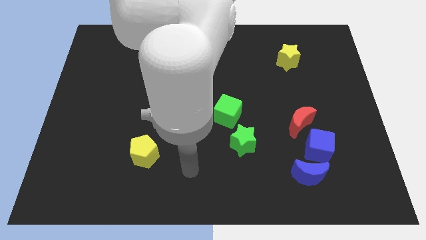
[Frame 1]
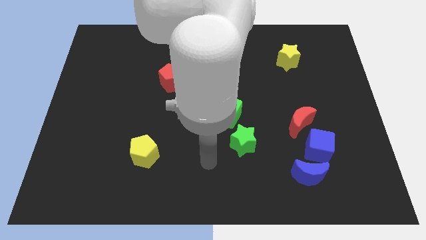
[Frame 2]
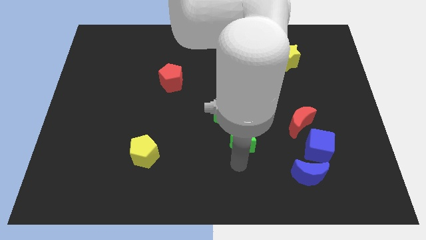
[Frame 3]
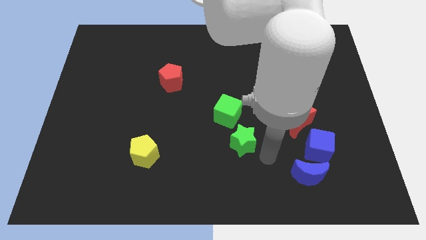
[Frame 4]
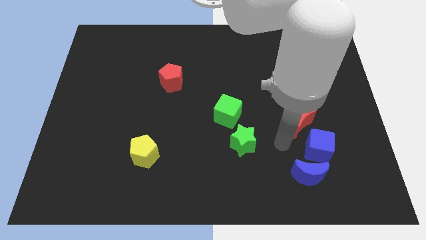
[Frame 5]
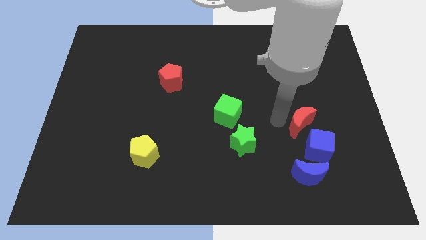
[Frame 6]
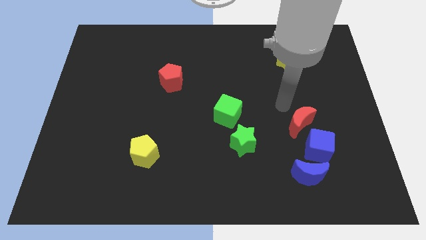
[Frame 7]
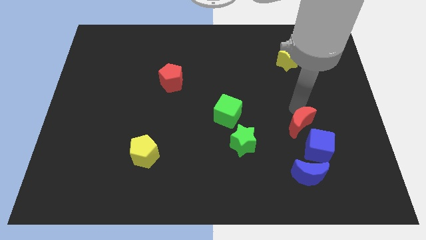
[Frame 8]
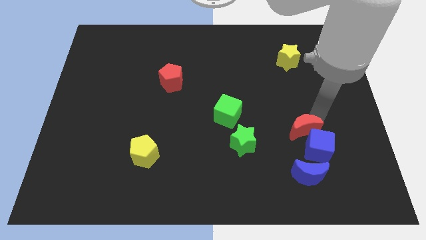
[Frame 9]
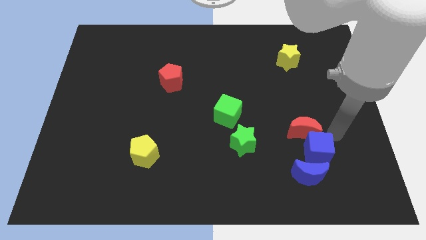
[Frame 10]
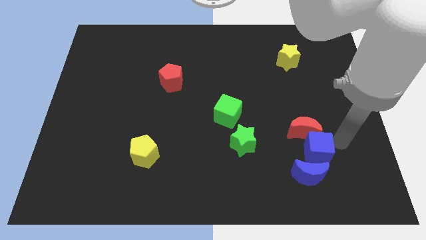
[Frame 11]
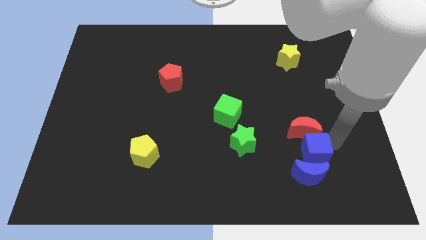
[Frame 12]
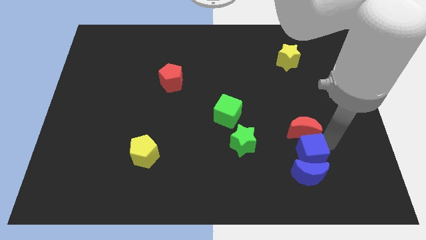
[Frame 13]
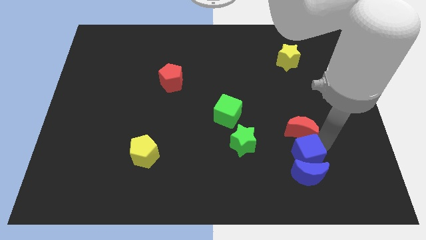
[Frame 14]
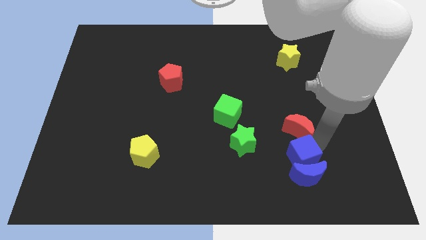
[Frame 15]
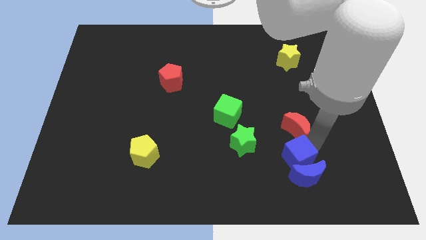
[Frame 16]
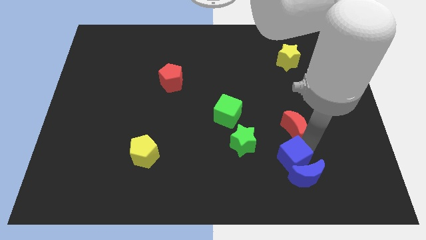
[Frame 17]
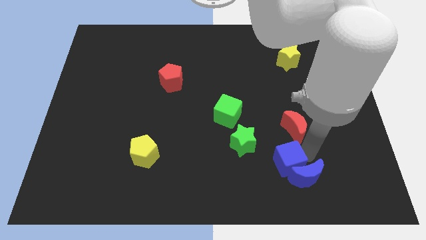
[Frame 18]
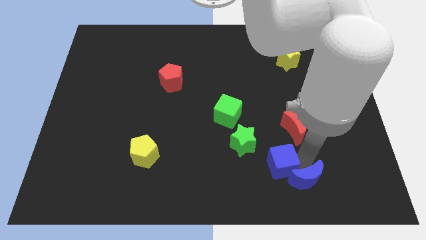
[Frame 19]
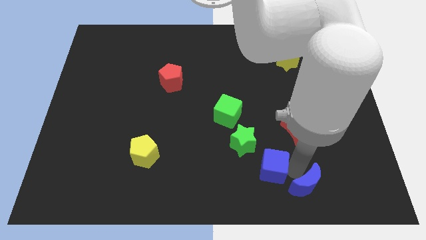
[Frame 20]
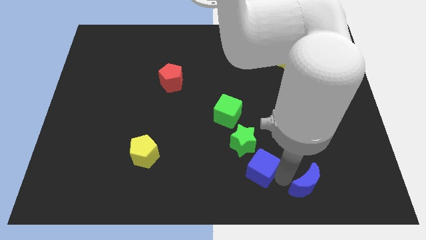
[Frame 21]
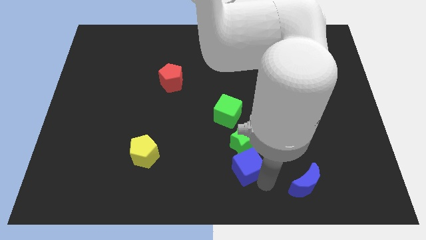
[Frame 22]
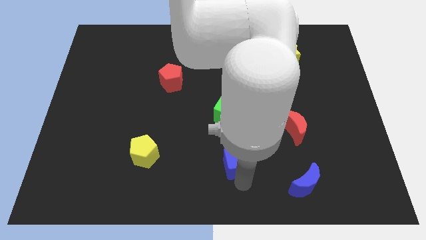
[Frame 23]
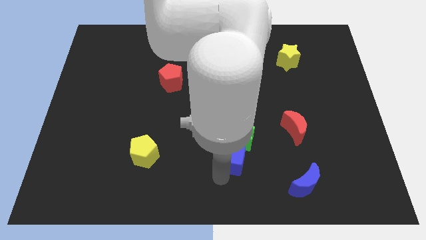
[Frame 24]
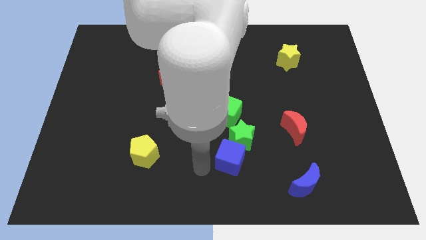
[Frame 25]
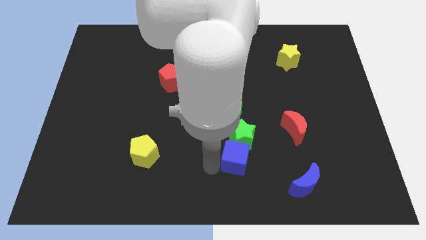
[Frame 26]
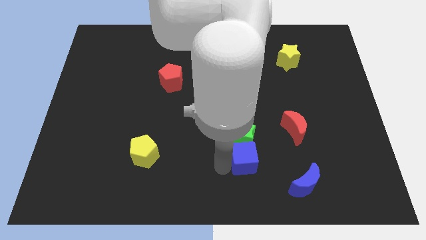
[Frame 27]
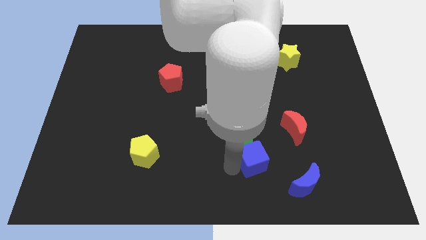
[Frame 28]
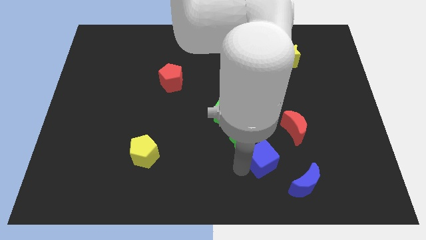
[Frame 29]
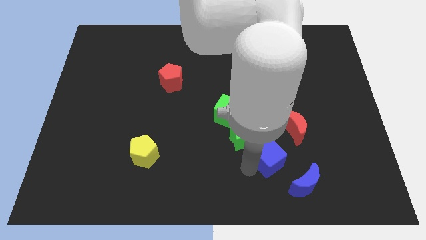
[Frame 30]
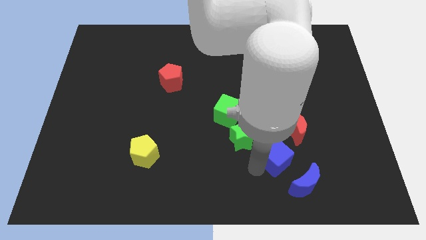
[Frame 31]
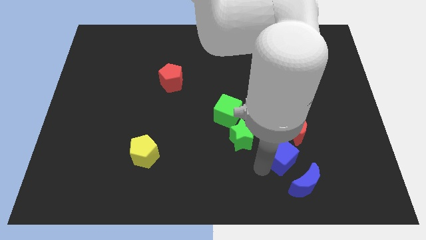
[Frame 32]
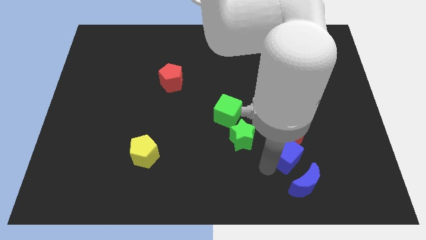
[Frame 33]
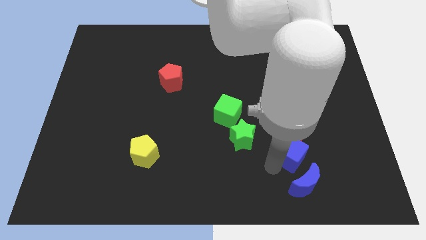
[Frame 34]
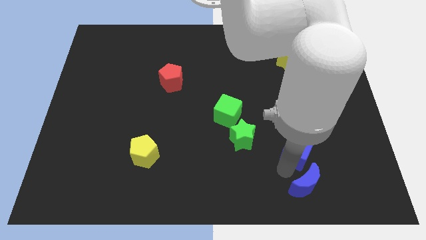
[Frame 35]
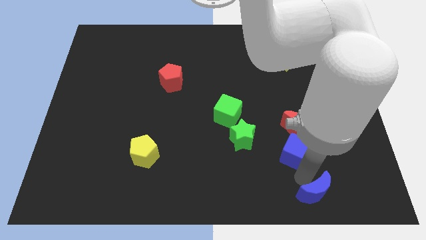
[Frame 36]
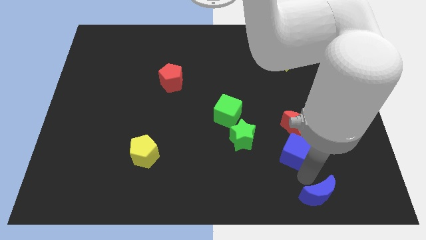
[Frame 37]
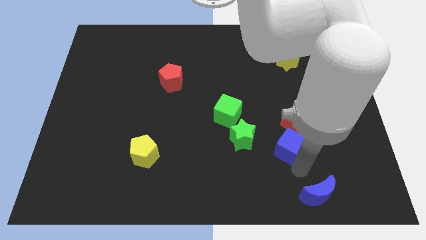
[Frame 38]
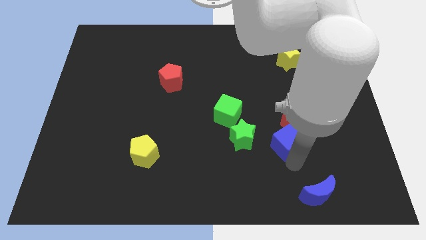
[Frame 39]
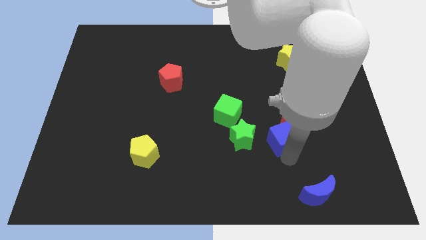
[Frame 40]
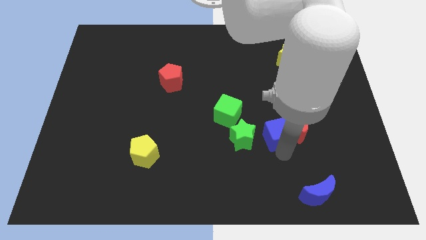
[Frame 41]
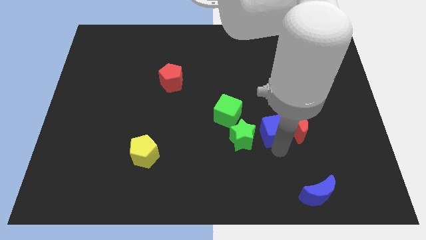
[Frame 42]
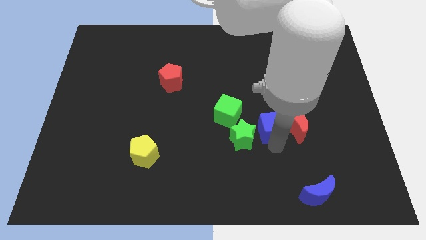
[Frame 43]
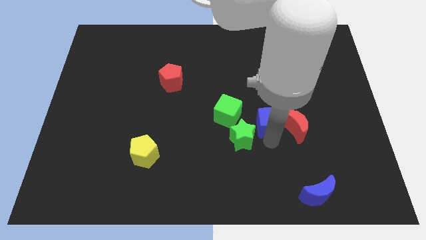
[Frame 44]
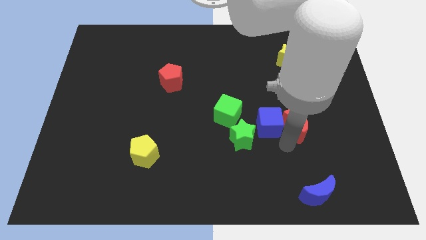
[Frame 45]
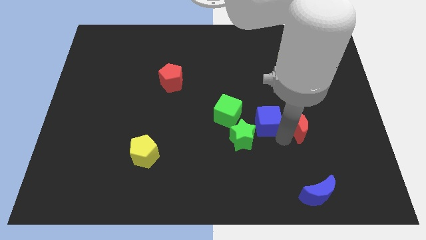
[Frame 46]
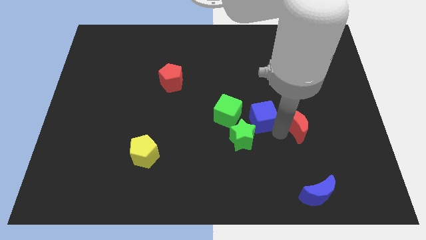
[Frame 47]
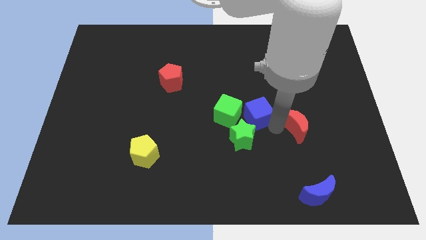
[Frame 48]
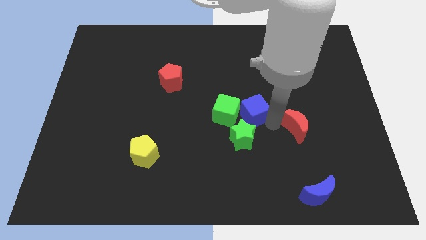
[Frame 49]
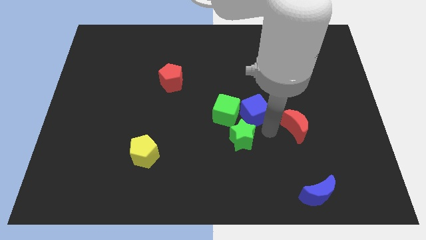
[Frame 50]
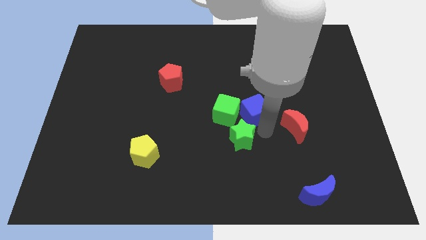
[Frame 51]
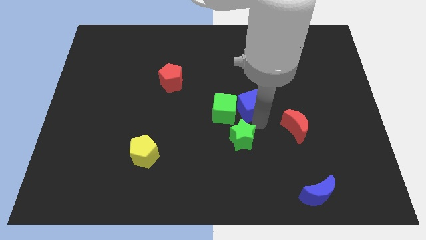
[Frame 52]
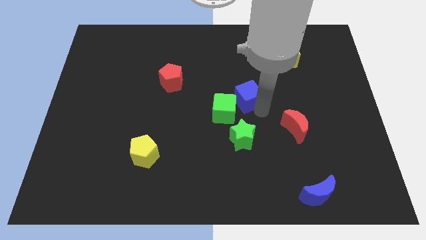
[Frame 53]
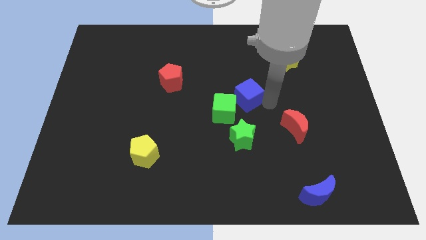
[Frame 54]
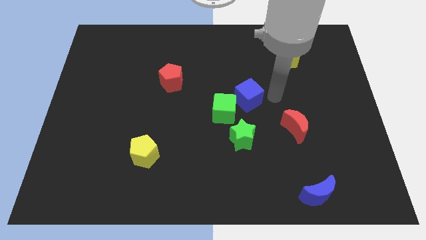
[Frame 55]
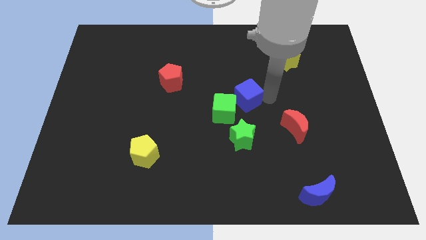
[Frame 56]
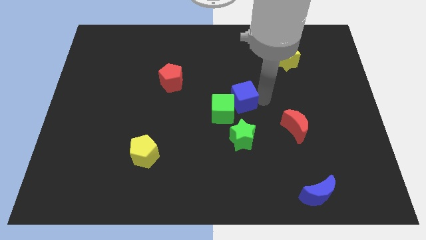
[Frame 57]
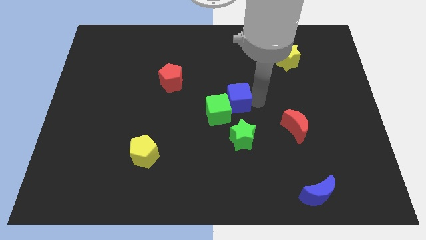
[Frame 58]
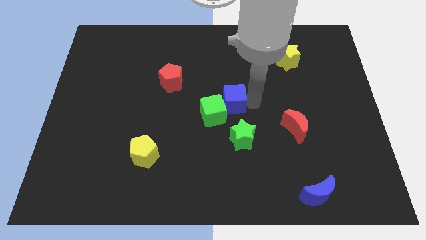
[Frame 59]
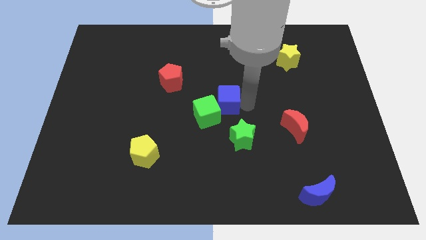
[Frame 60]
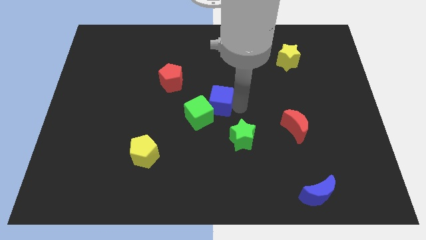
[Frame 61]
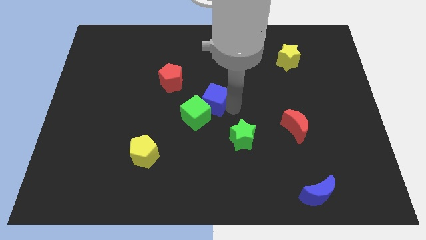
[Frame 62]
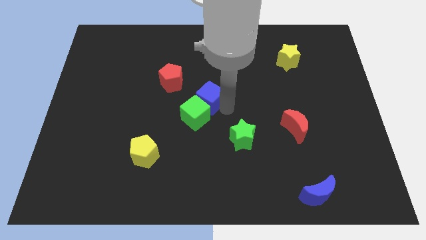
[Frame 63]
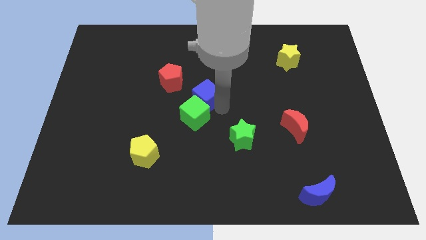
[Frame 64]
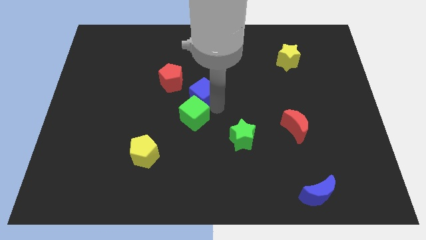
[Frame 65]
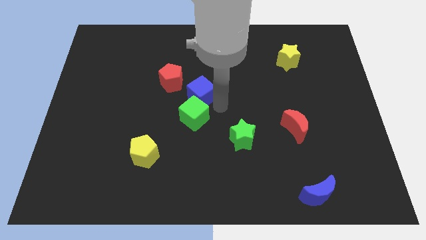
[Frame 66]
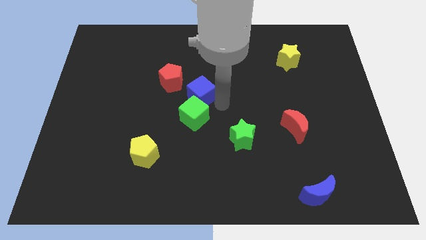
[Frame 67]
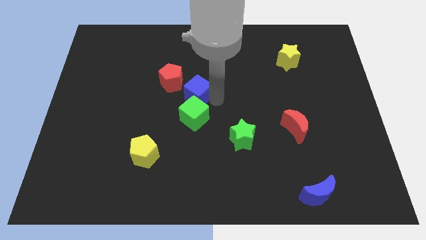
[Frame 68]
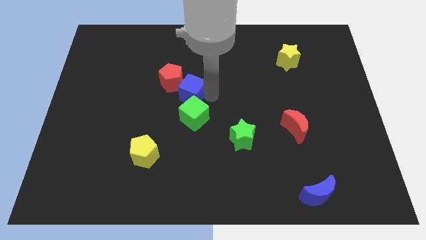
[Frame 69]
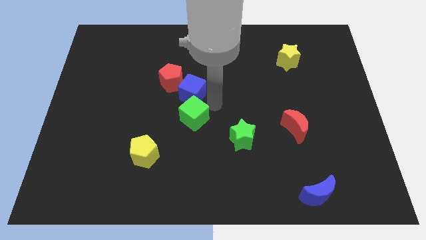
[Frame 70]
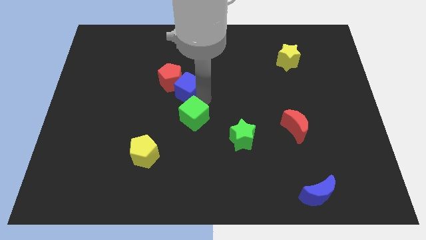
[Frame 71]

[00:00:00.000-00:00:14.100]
push the blue cube next to the red pentagon

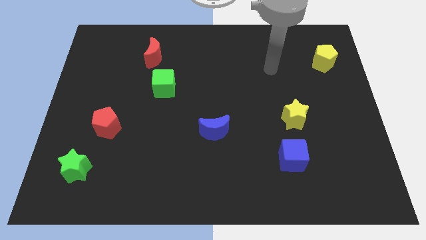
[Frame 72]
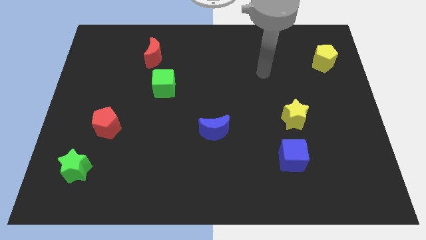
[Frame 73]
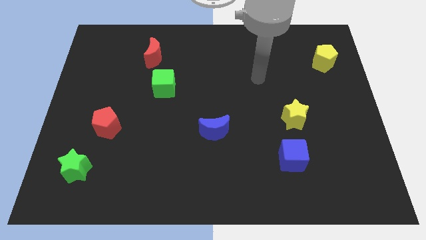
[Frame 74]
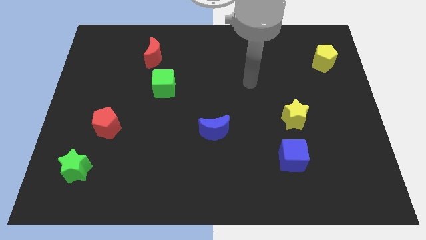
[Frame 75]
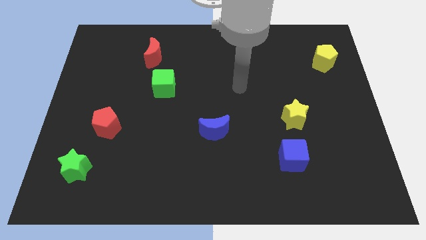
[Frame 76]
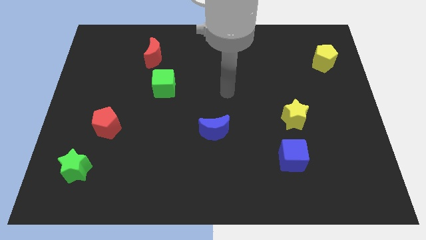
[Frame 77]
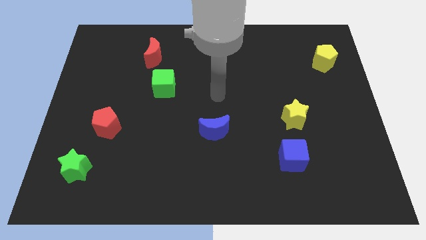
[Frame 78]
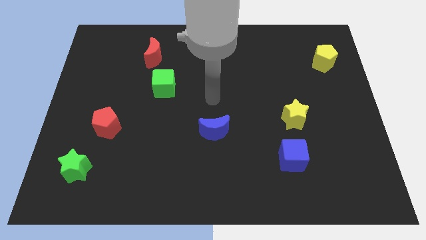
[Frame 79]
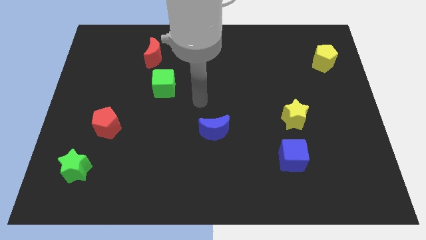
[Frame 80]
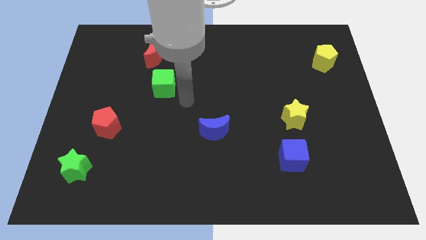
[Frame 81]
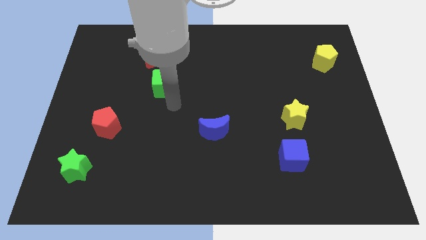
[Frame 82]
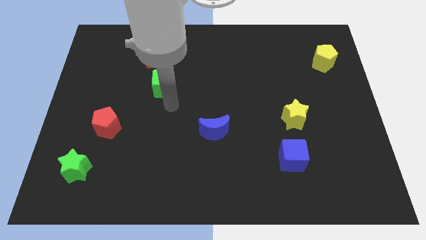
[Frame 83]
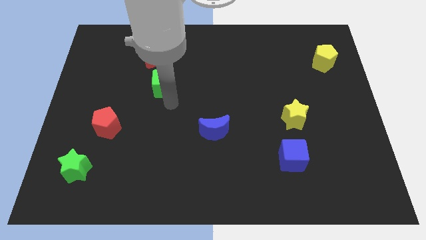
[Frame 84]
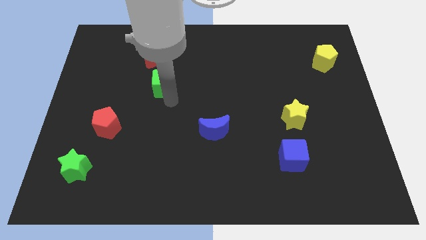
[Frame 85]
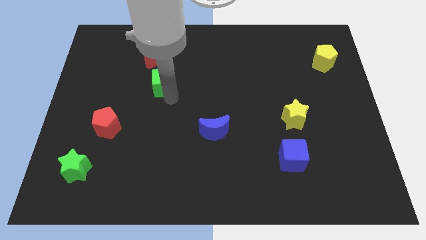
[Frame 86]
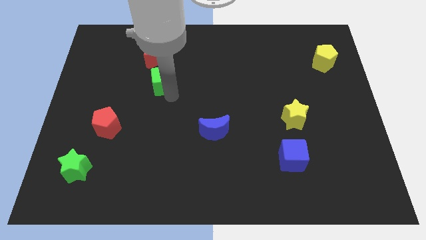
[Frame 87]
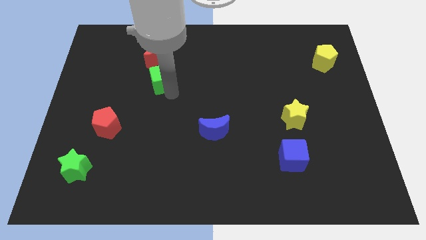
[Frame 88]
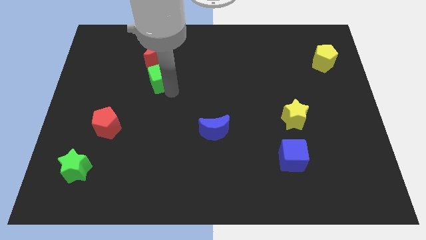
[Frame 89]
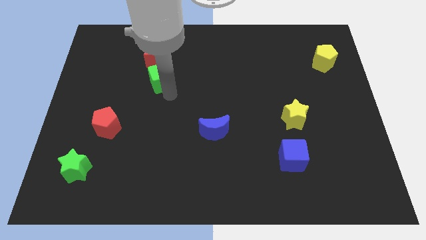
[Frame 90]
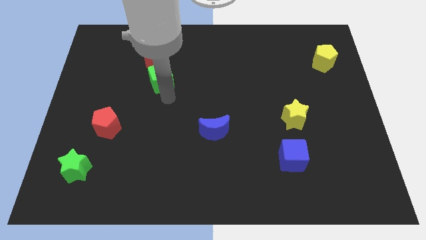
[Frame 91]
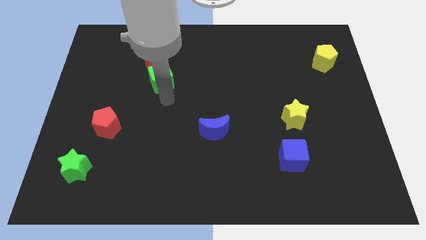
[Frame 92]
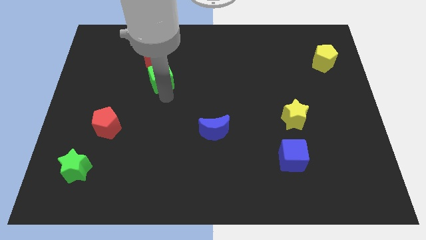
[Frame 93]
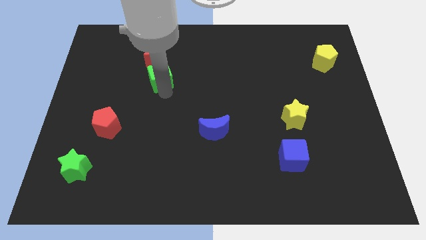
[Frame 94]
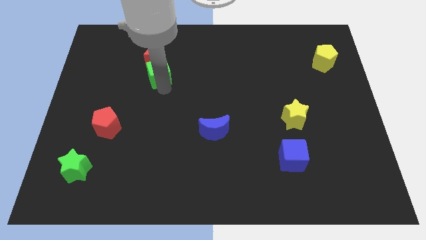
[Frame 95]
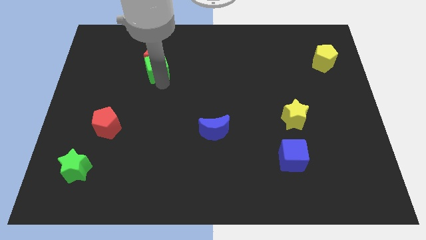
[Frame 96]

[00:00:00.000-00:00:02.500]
put the green cube next to the red moon
